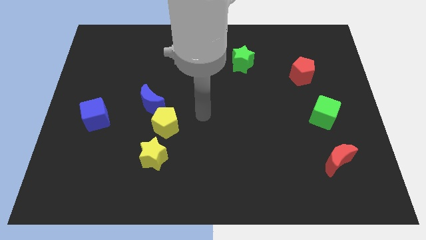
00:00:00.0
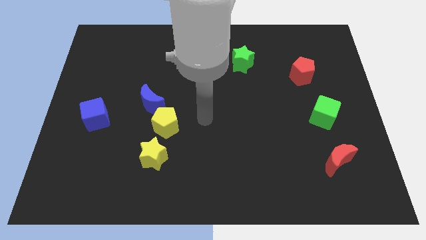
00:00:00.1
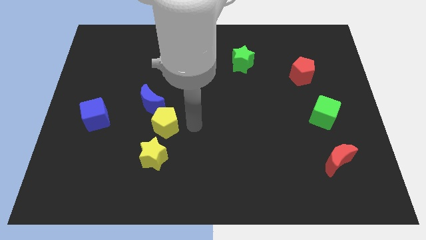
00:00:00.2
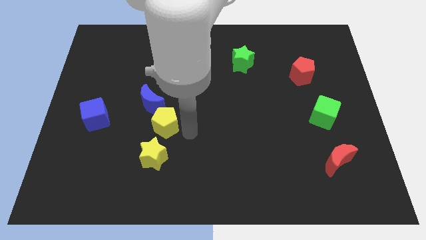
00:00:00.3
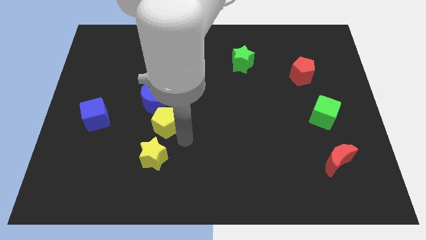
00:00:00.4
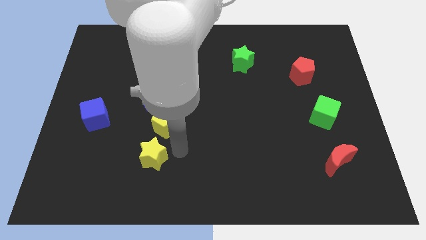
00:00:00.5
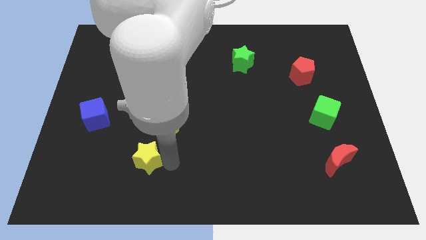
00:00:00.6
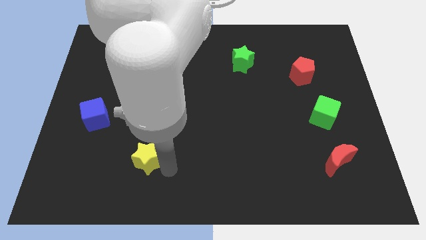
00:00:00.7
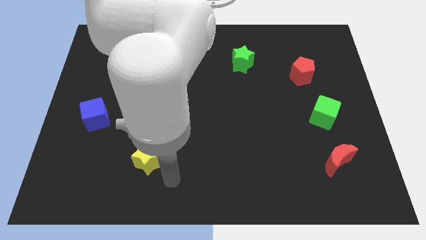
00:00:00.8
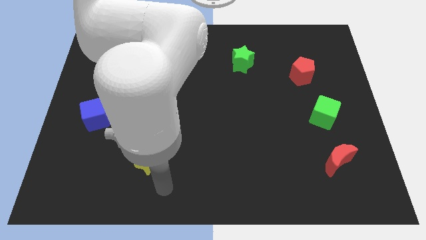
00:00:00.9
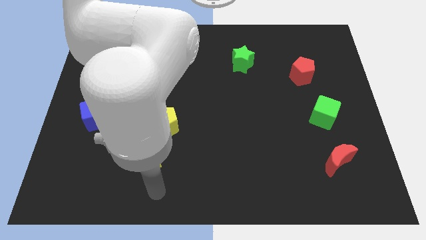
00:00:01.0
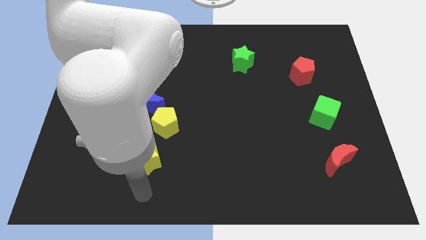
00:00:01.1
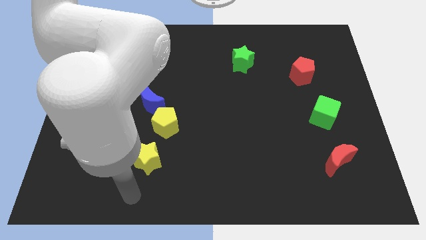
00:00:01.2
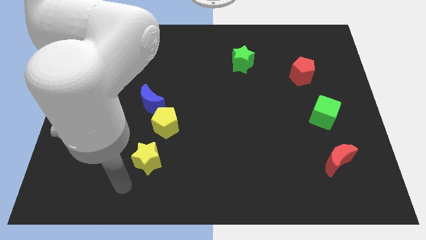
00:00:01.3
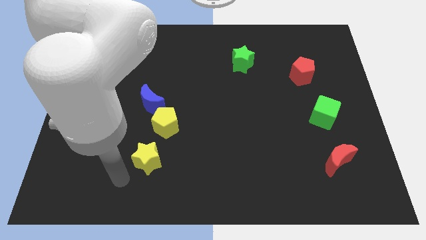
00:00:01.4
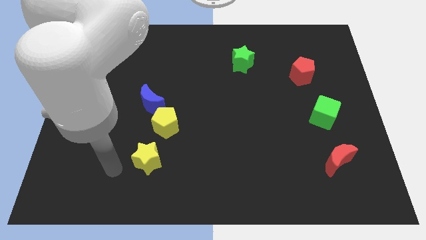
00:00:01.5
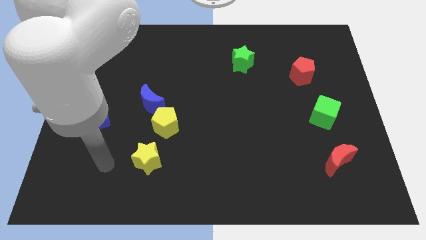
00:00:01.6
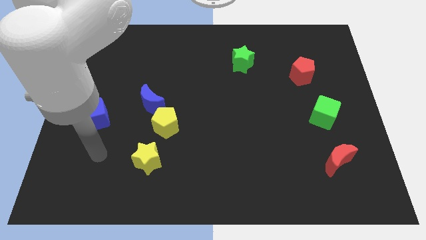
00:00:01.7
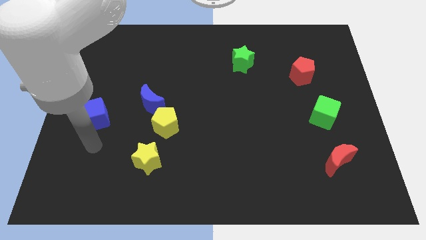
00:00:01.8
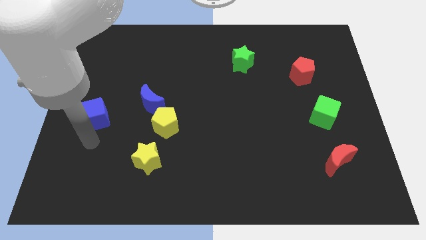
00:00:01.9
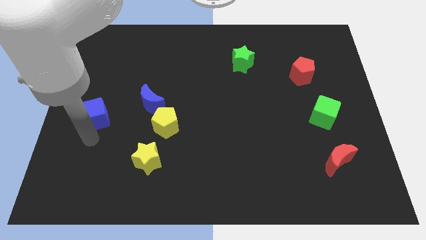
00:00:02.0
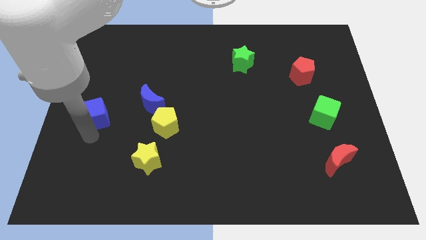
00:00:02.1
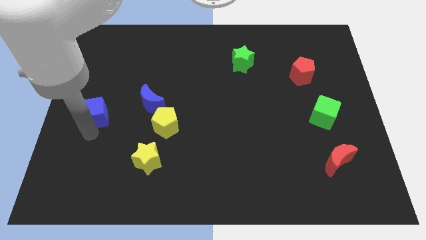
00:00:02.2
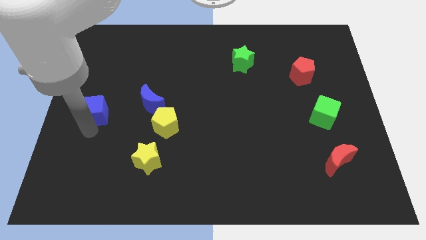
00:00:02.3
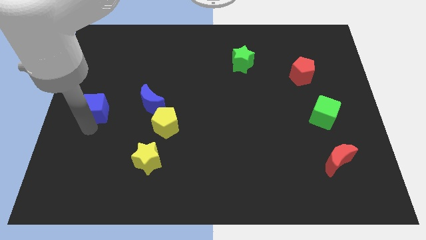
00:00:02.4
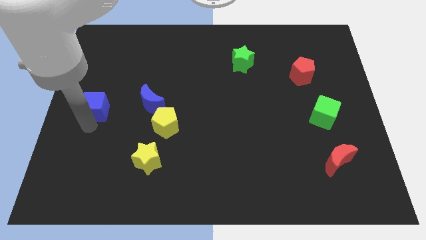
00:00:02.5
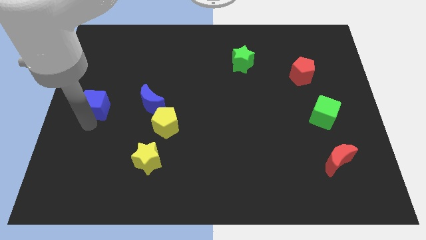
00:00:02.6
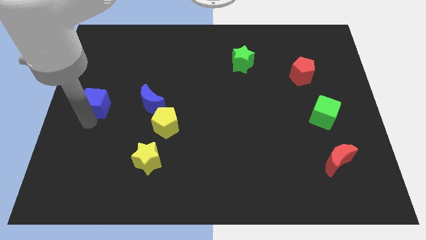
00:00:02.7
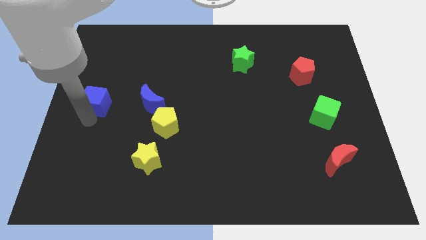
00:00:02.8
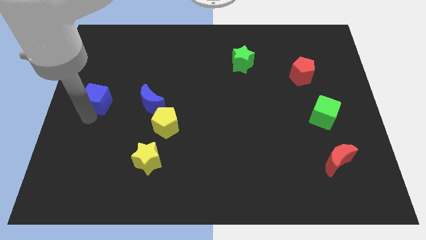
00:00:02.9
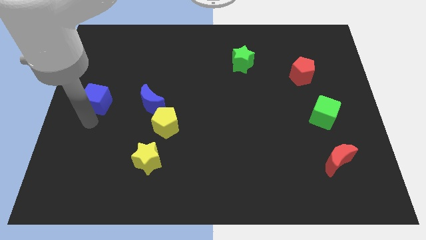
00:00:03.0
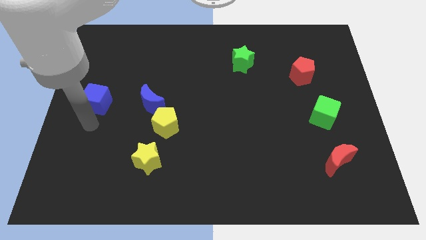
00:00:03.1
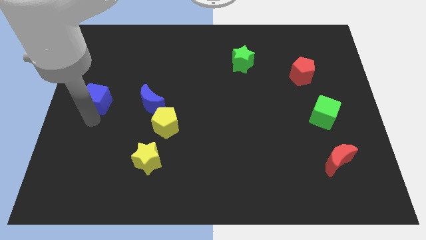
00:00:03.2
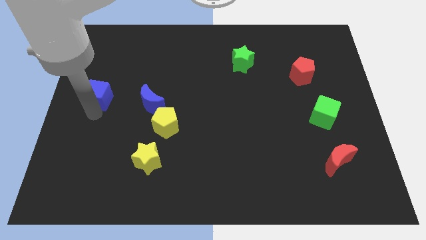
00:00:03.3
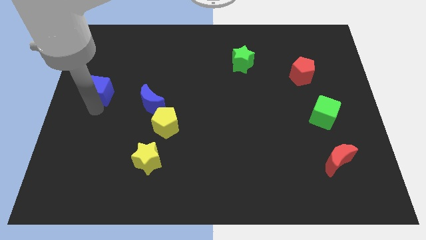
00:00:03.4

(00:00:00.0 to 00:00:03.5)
slide the blue cube a little up

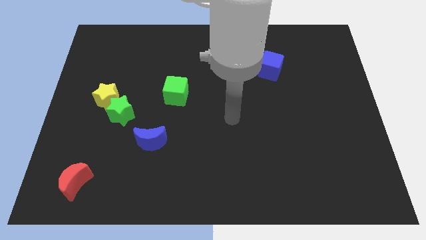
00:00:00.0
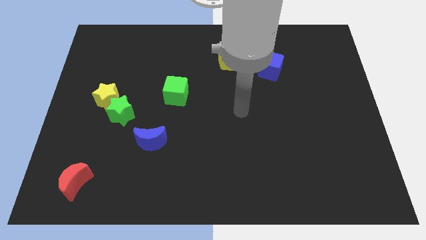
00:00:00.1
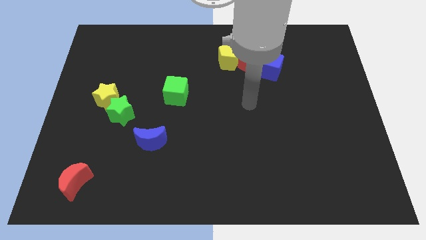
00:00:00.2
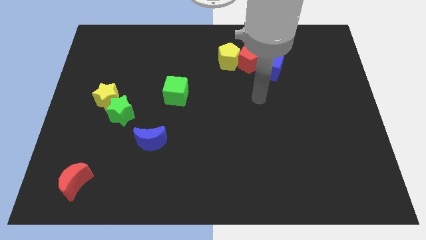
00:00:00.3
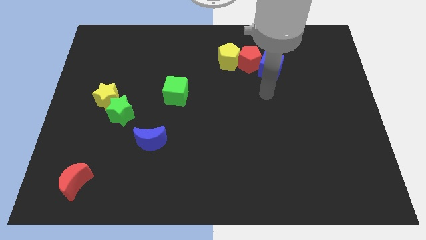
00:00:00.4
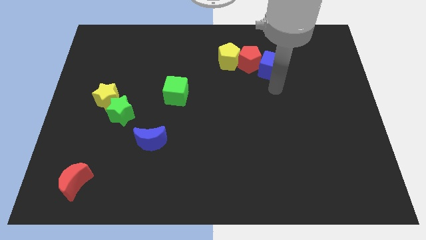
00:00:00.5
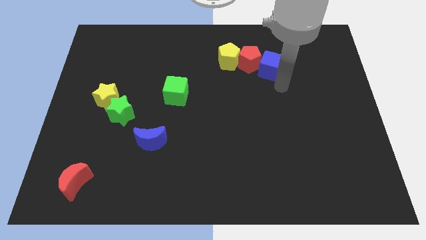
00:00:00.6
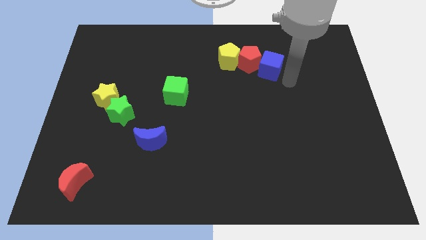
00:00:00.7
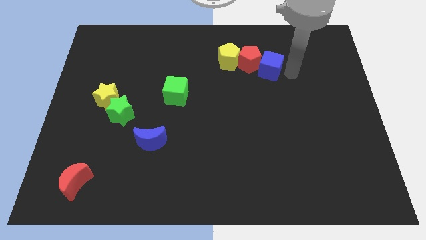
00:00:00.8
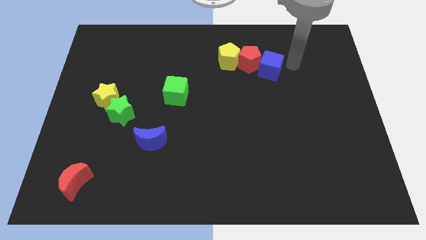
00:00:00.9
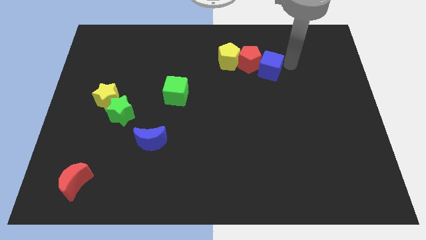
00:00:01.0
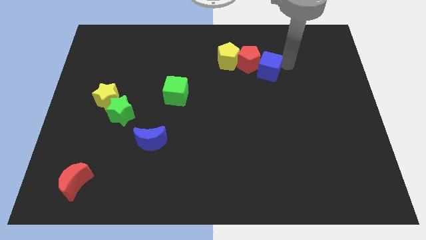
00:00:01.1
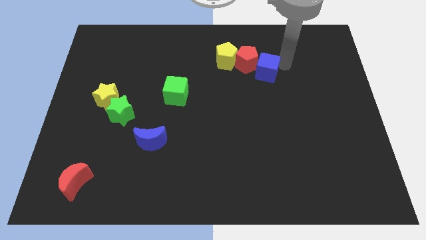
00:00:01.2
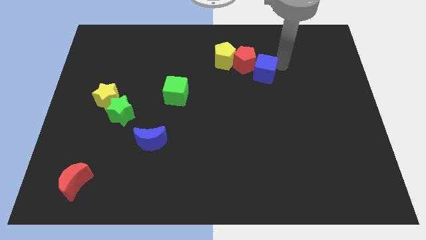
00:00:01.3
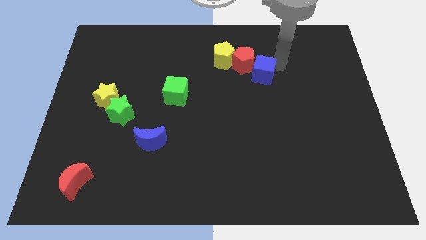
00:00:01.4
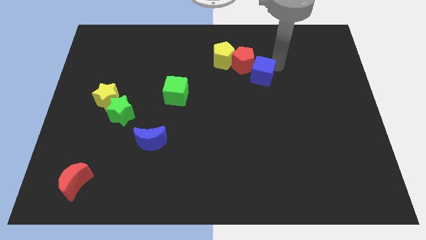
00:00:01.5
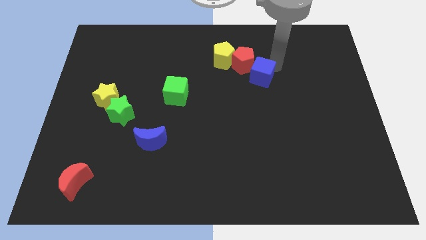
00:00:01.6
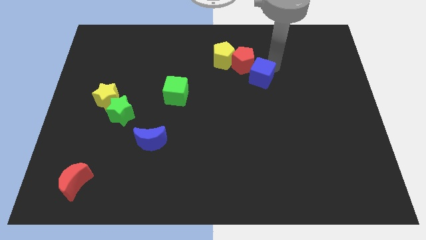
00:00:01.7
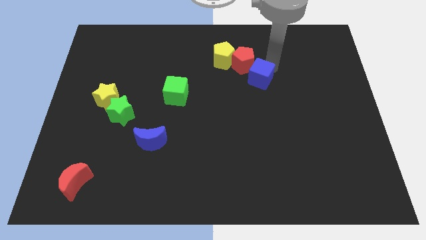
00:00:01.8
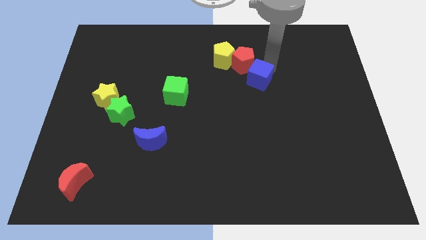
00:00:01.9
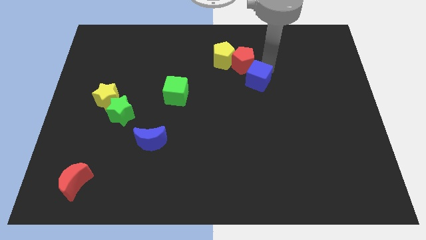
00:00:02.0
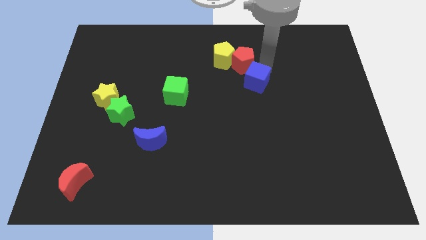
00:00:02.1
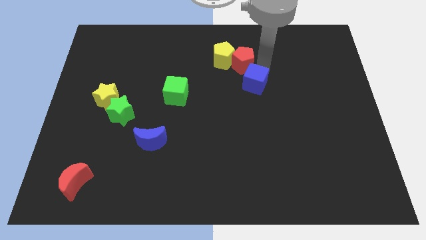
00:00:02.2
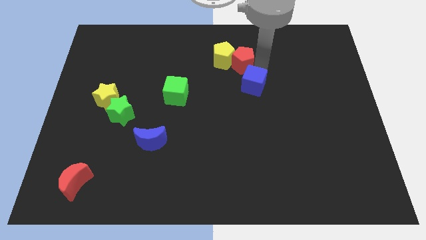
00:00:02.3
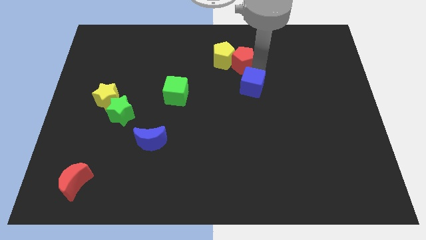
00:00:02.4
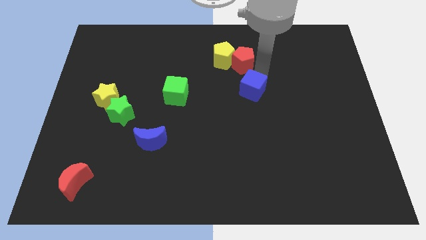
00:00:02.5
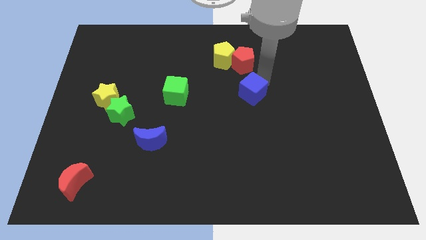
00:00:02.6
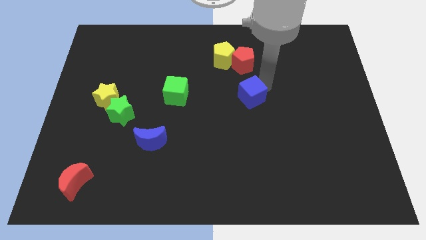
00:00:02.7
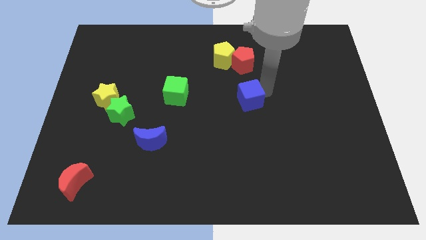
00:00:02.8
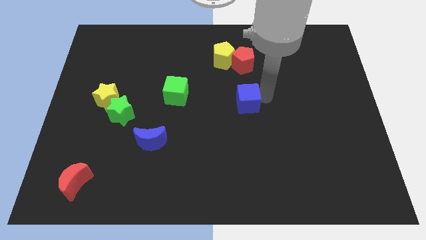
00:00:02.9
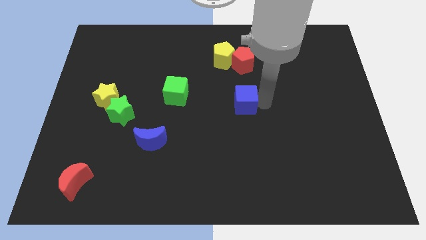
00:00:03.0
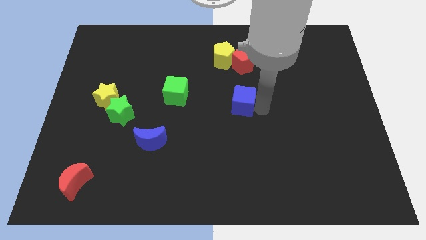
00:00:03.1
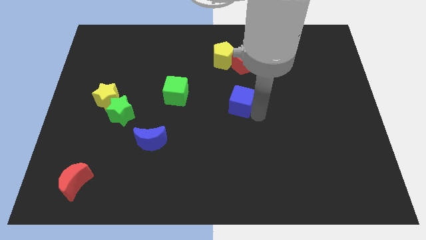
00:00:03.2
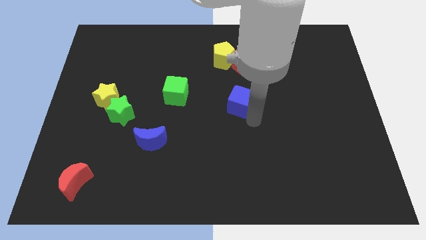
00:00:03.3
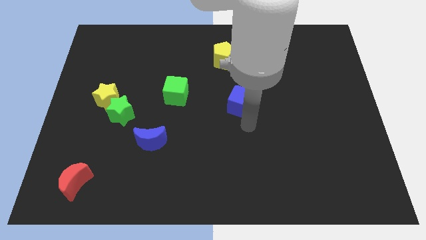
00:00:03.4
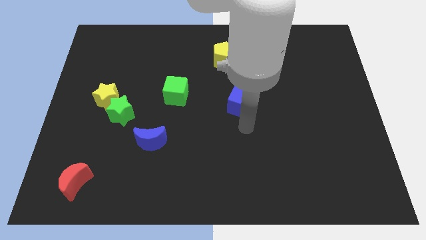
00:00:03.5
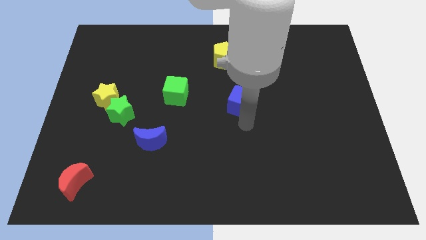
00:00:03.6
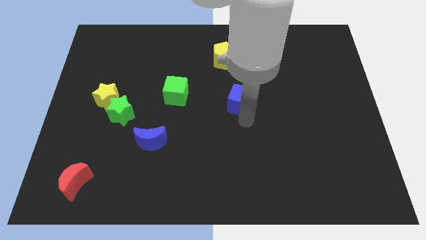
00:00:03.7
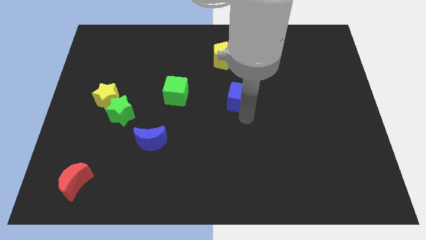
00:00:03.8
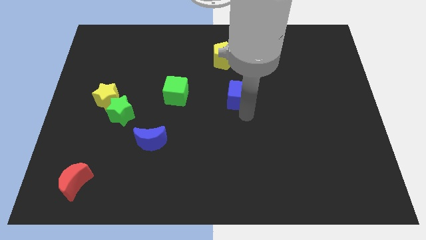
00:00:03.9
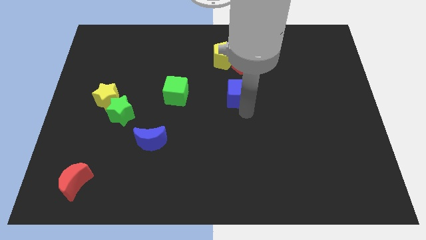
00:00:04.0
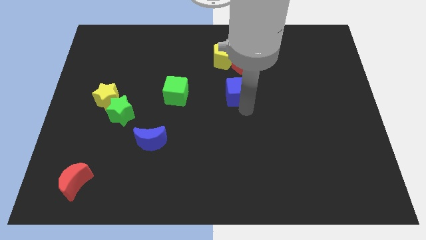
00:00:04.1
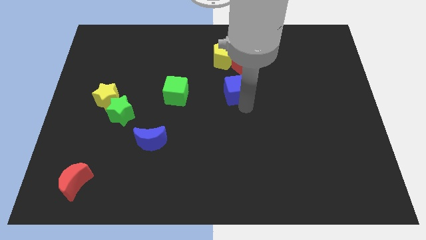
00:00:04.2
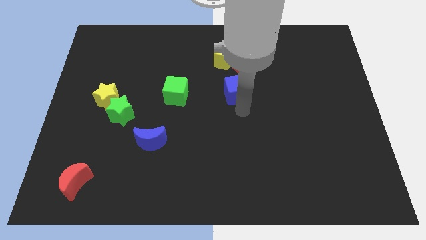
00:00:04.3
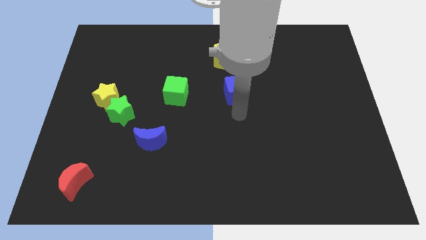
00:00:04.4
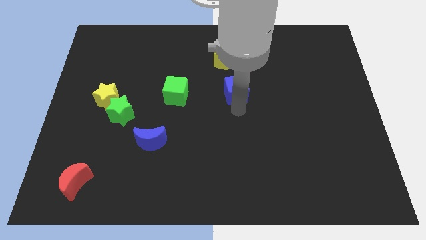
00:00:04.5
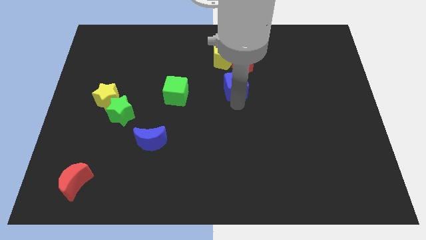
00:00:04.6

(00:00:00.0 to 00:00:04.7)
move the blue cube a little bit to the left
